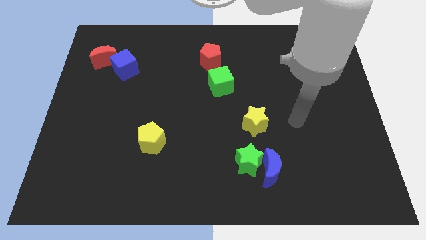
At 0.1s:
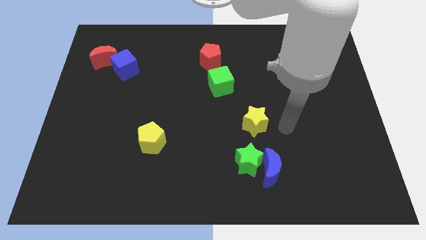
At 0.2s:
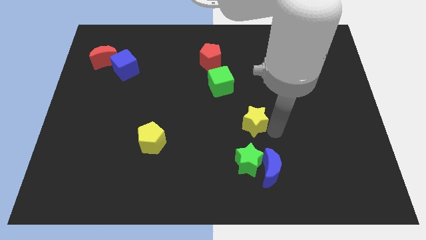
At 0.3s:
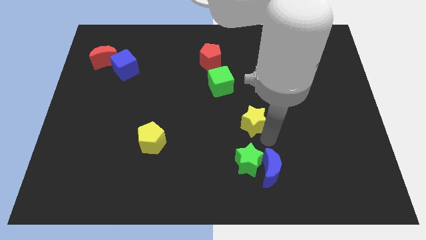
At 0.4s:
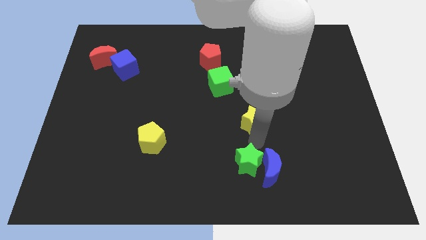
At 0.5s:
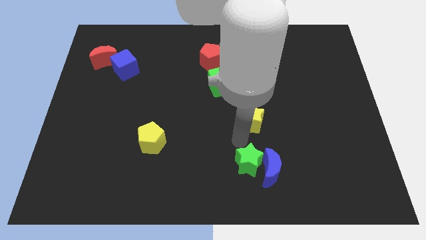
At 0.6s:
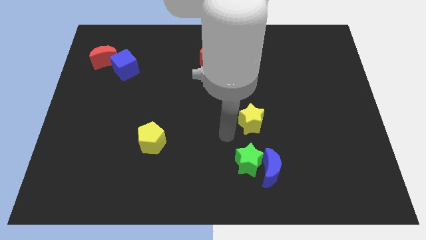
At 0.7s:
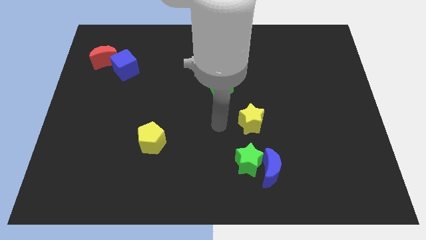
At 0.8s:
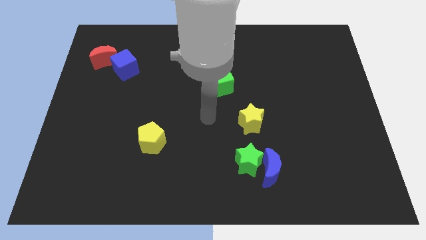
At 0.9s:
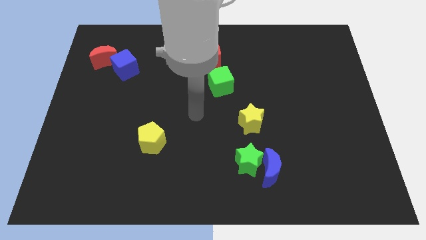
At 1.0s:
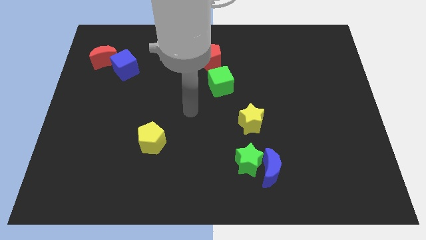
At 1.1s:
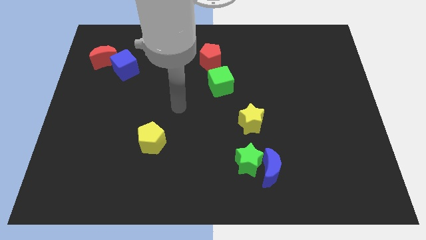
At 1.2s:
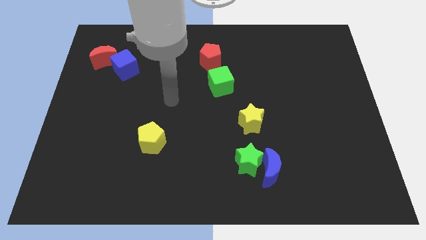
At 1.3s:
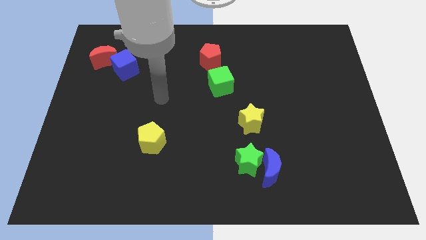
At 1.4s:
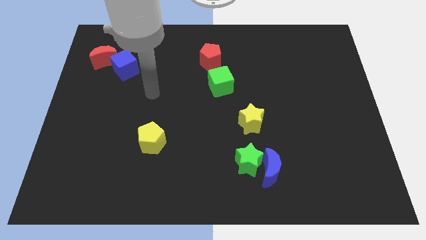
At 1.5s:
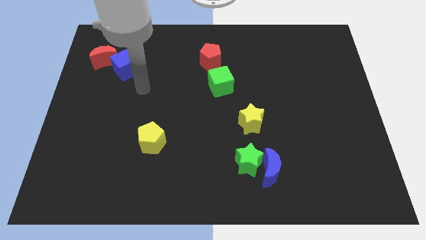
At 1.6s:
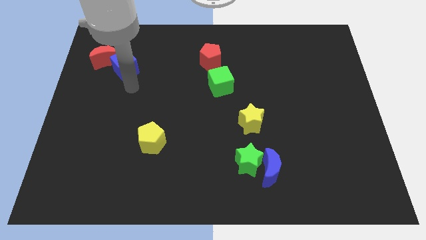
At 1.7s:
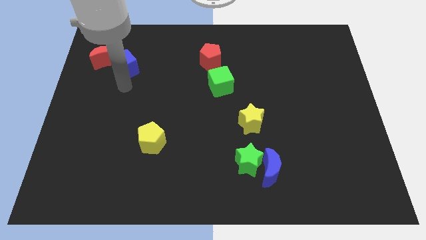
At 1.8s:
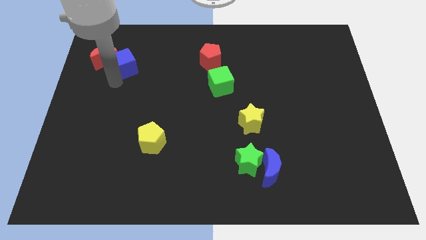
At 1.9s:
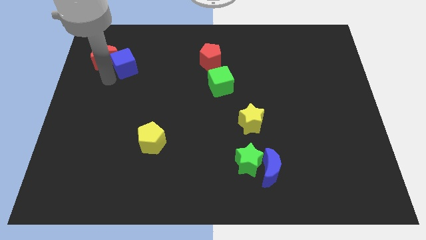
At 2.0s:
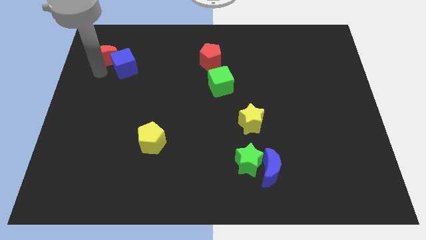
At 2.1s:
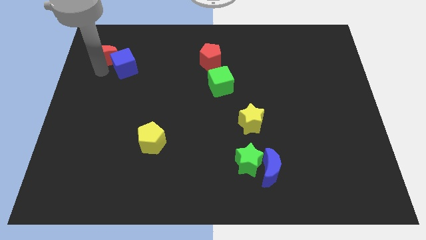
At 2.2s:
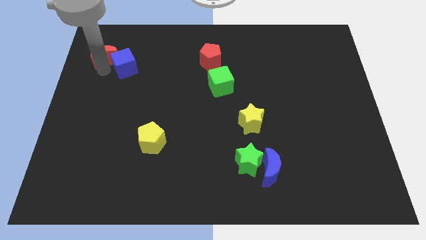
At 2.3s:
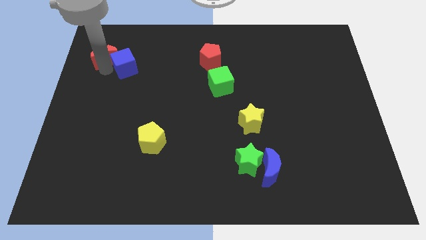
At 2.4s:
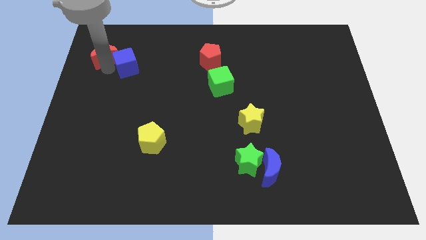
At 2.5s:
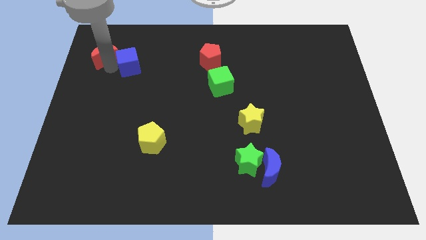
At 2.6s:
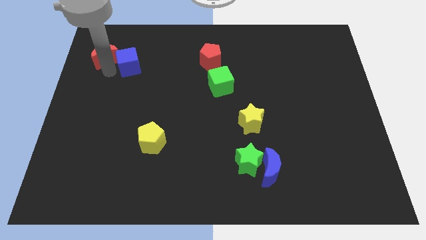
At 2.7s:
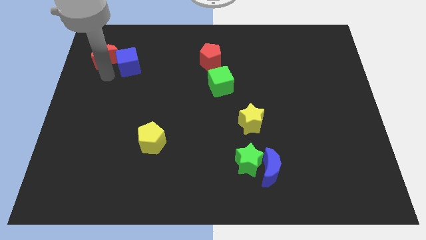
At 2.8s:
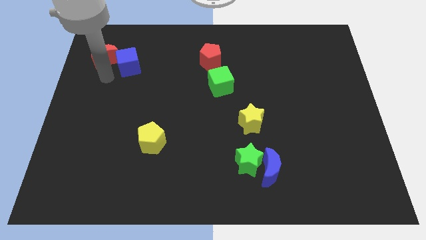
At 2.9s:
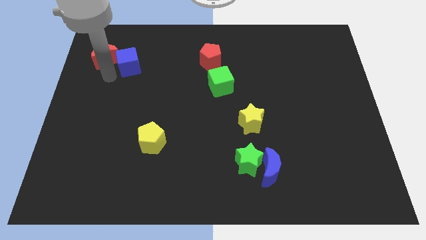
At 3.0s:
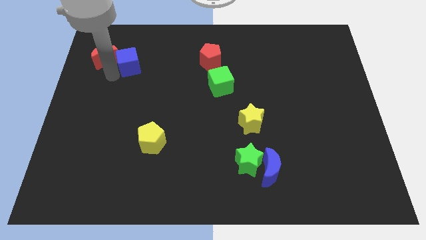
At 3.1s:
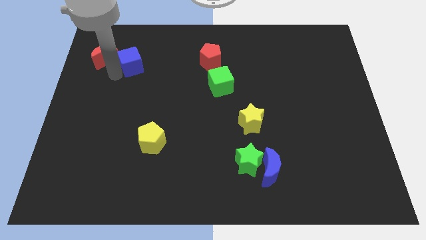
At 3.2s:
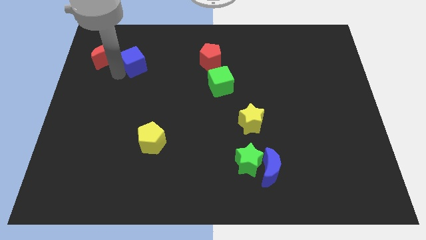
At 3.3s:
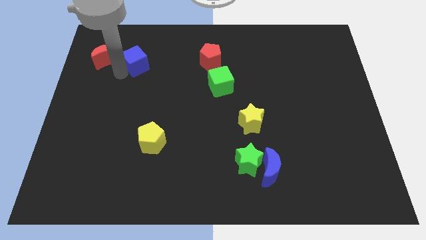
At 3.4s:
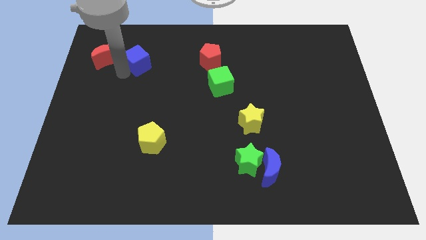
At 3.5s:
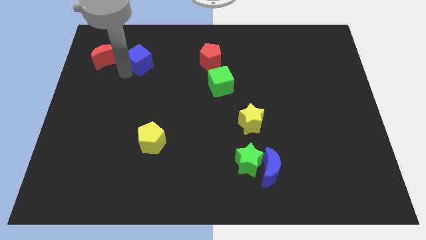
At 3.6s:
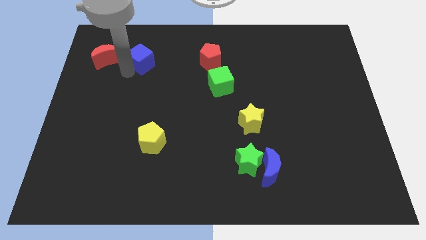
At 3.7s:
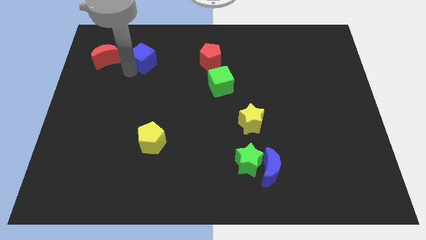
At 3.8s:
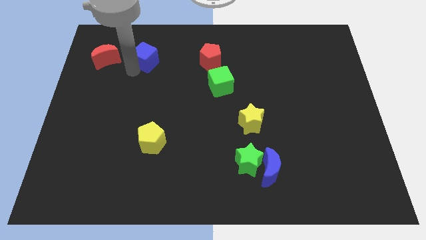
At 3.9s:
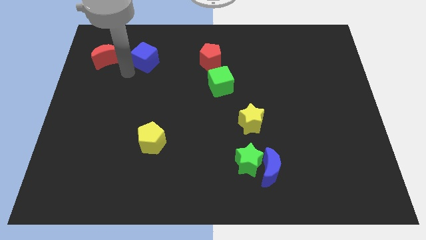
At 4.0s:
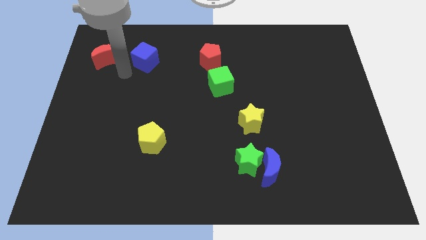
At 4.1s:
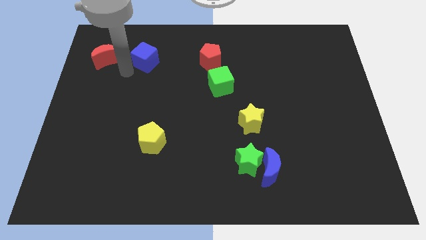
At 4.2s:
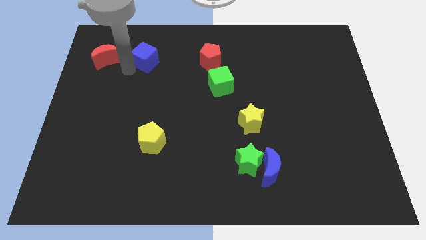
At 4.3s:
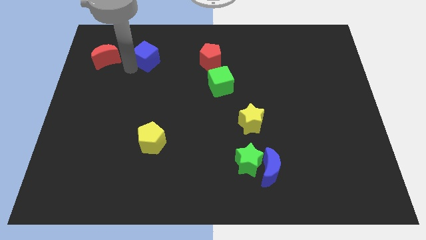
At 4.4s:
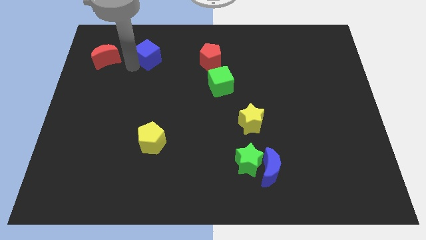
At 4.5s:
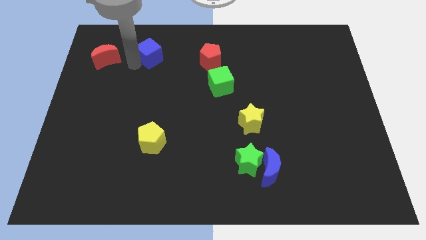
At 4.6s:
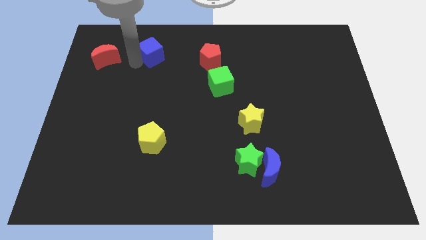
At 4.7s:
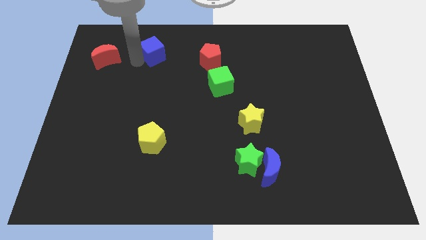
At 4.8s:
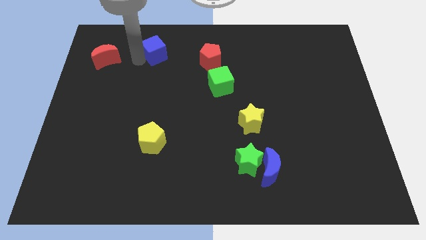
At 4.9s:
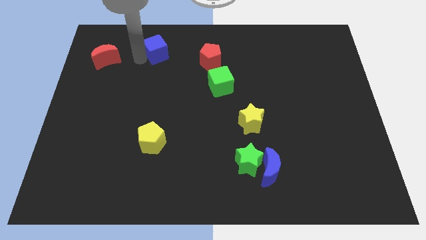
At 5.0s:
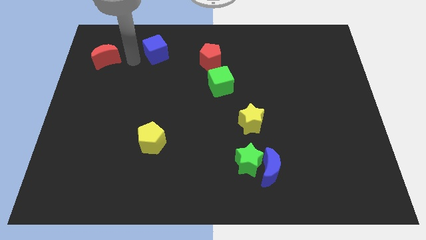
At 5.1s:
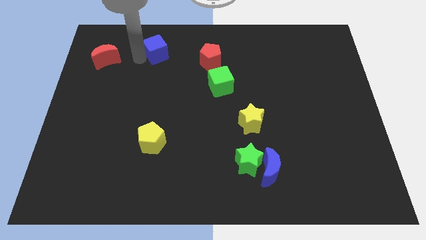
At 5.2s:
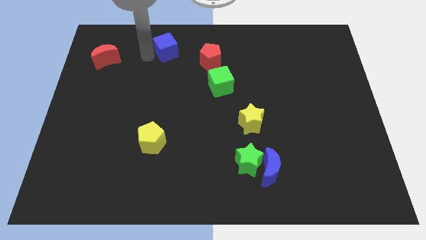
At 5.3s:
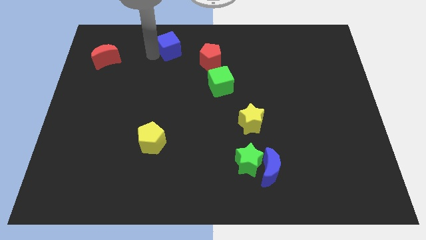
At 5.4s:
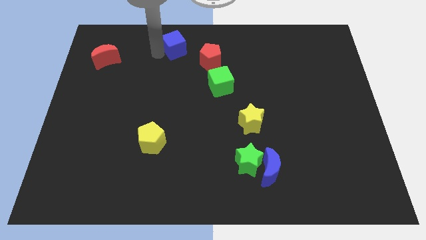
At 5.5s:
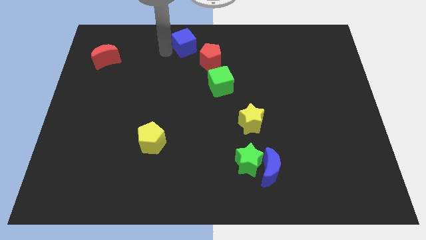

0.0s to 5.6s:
put the blue cube to the top side
